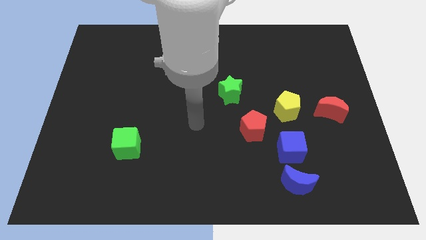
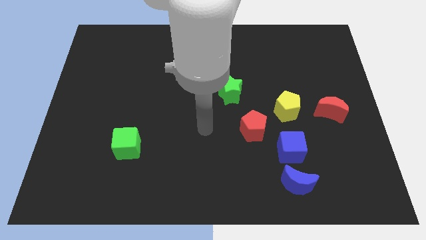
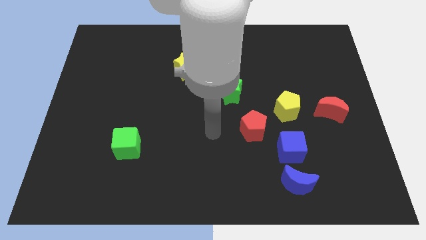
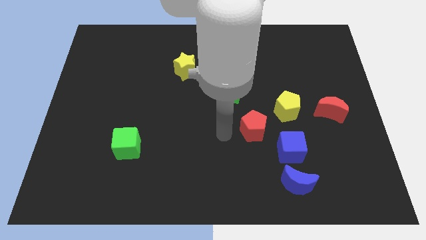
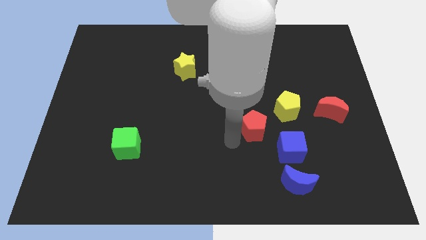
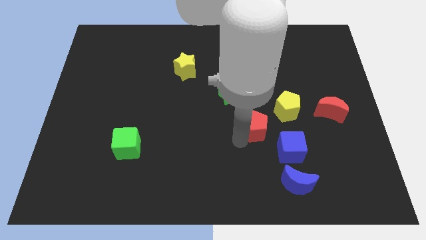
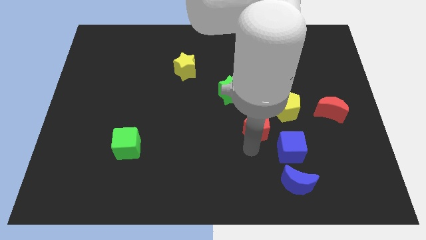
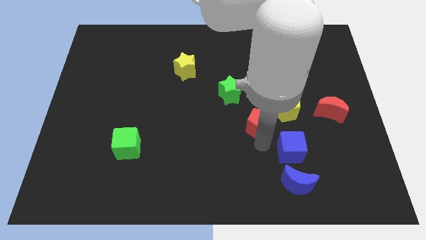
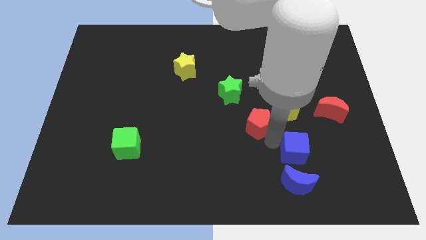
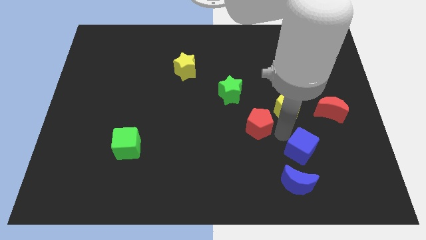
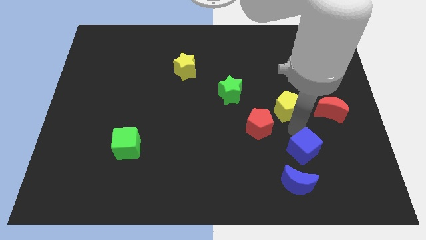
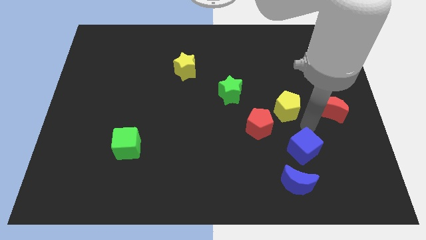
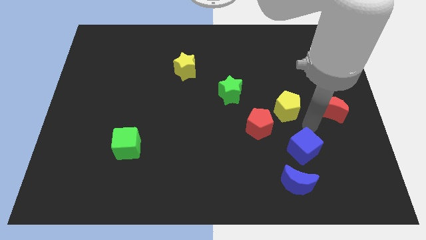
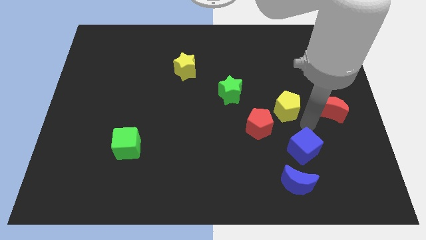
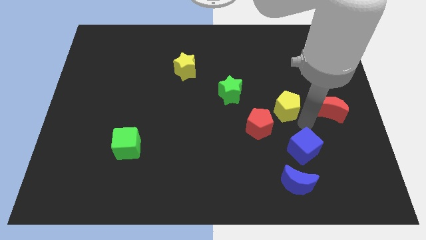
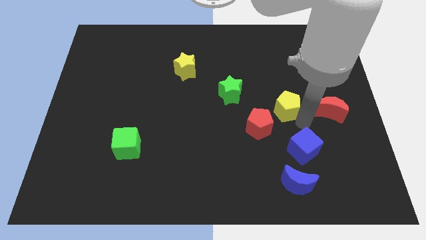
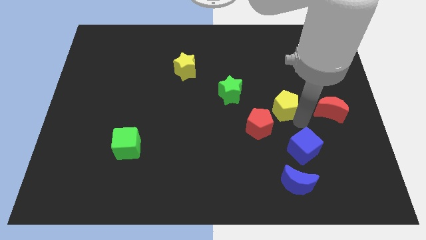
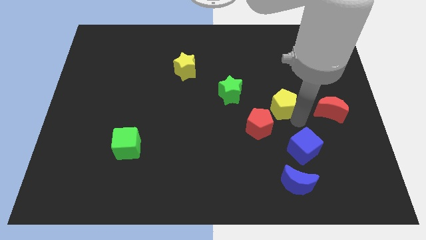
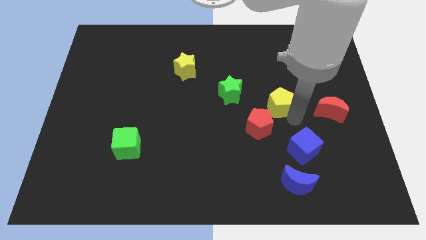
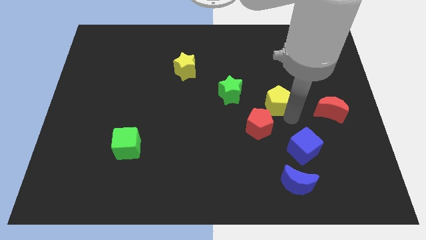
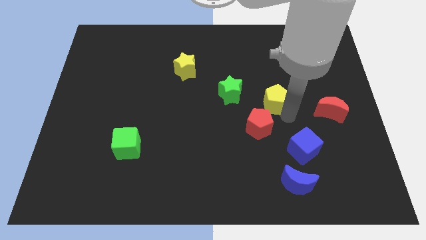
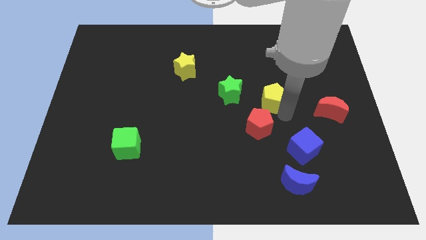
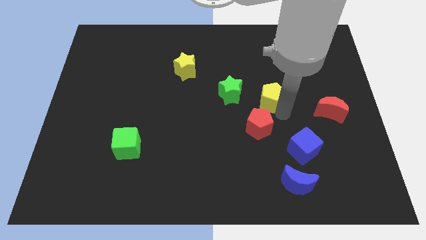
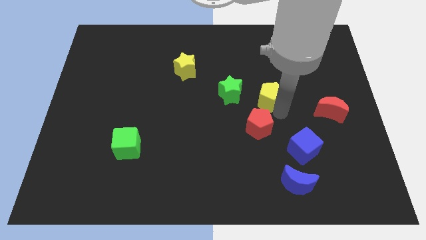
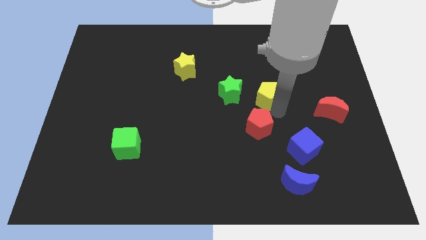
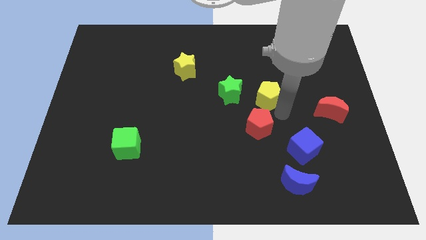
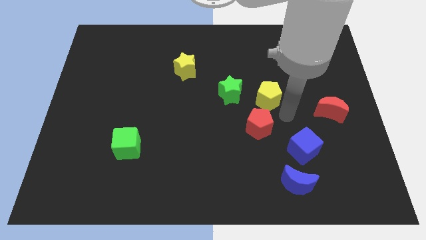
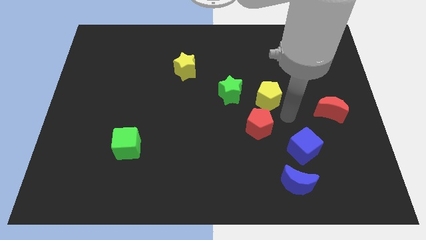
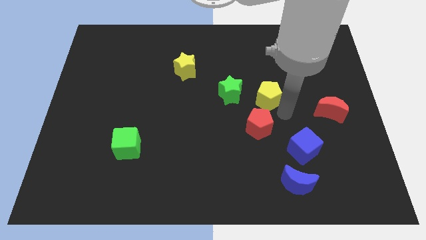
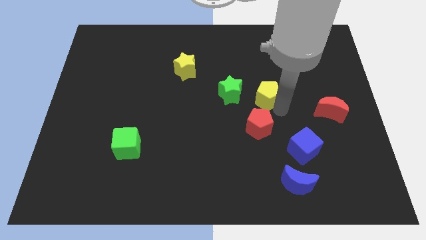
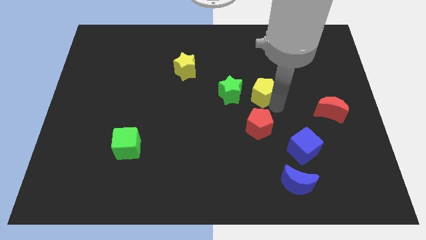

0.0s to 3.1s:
slightly move the yellow pentagon diagonally up and left

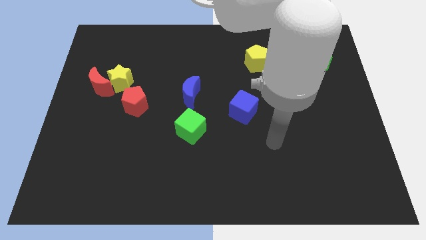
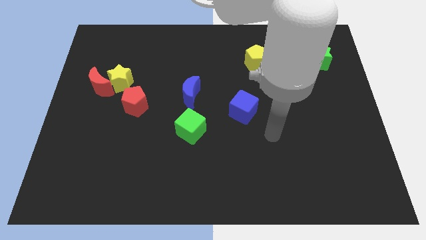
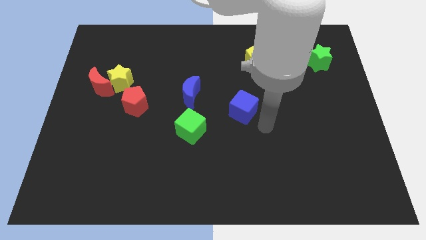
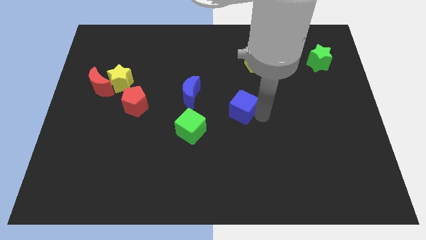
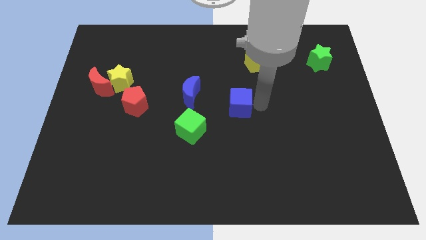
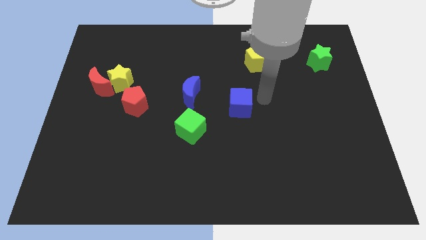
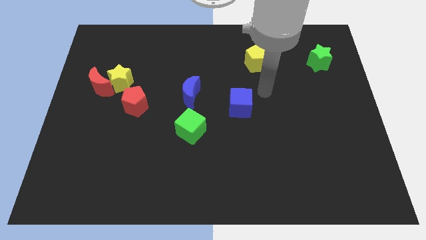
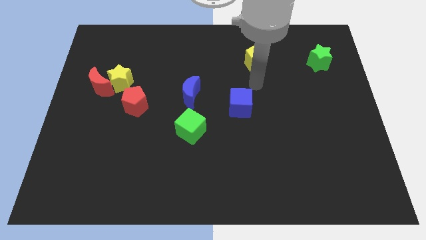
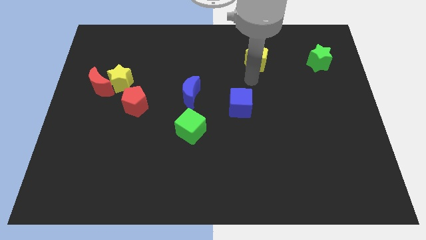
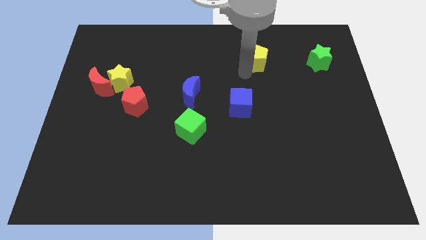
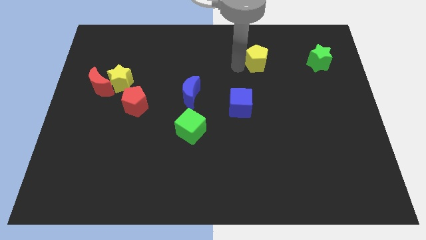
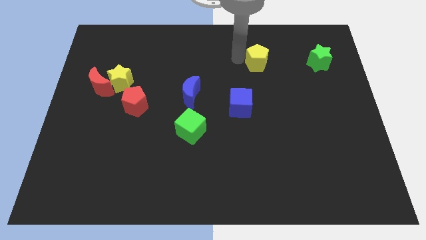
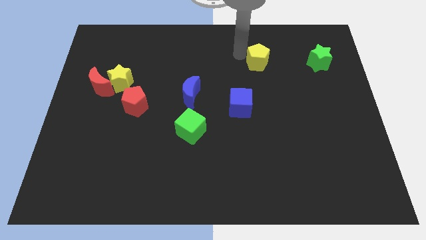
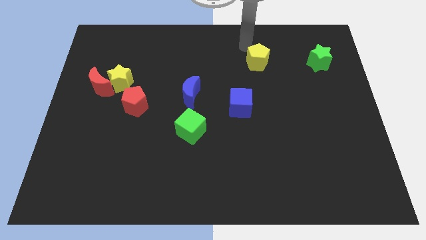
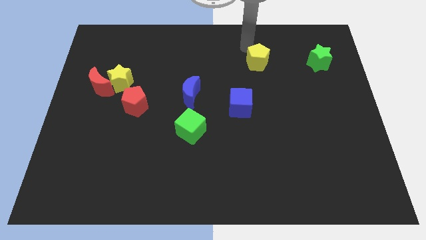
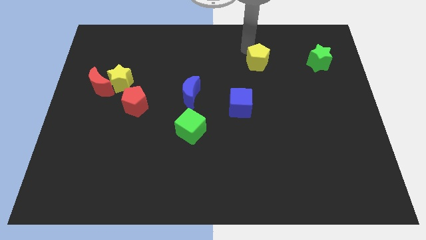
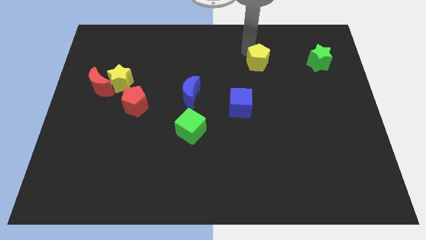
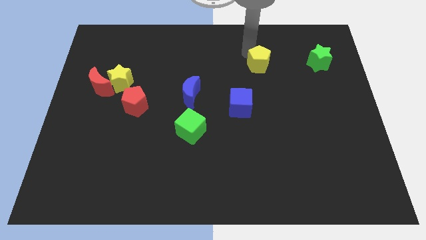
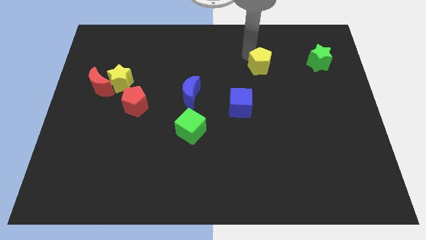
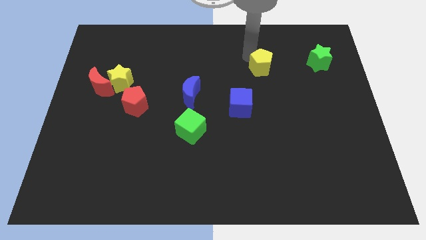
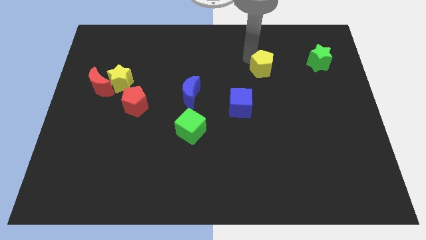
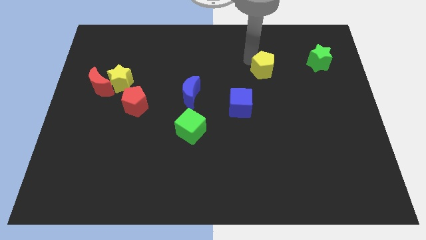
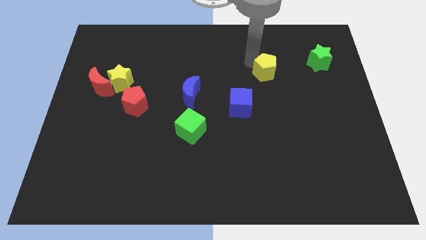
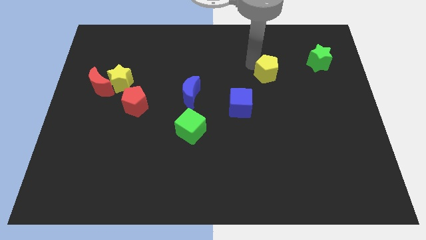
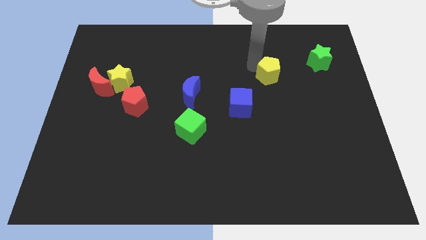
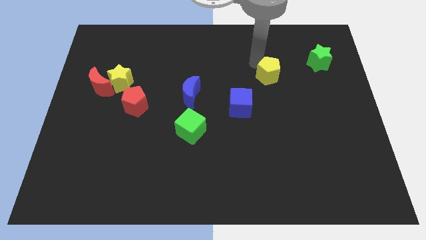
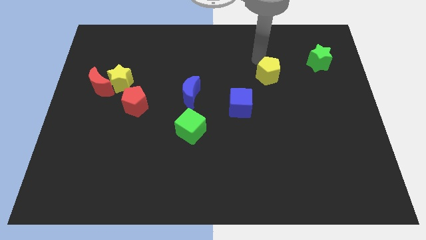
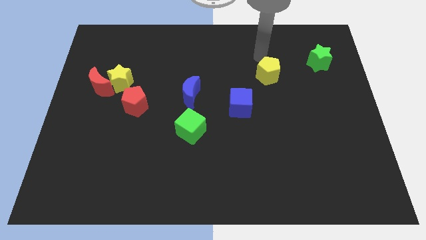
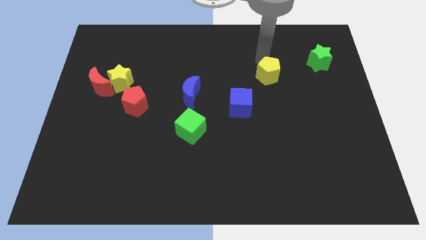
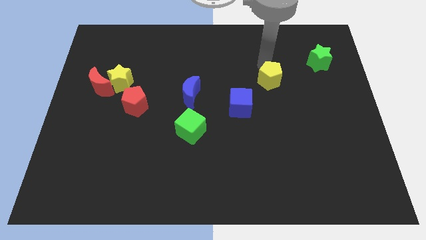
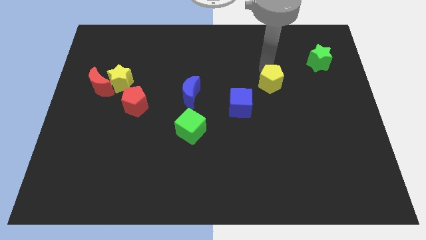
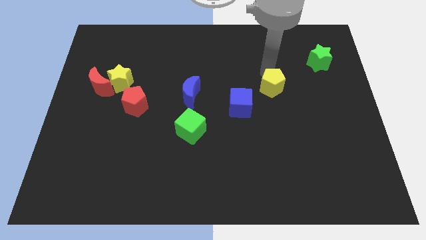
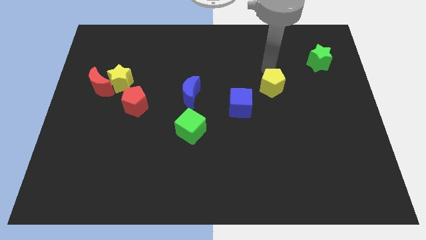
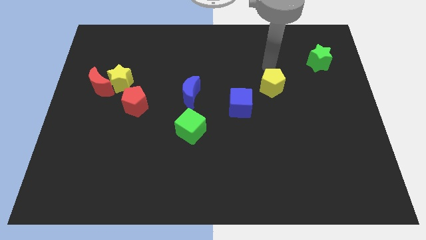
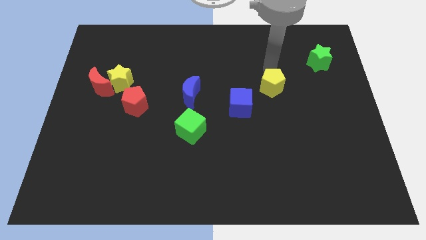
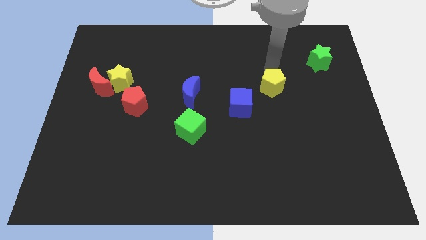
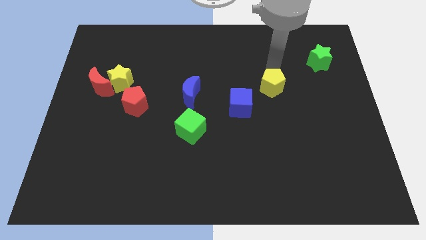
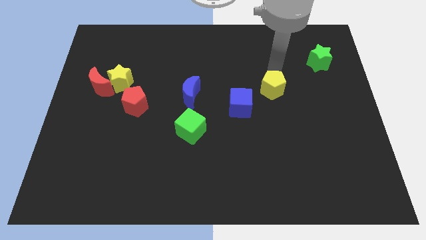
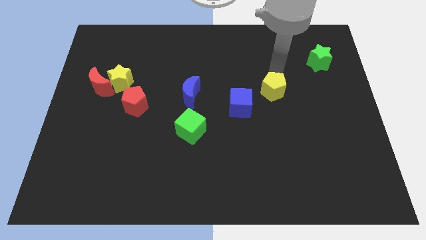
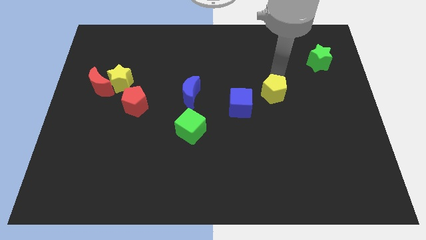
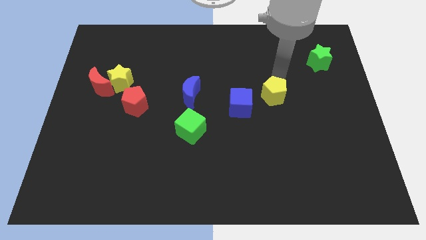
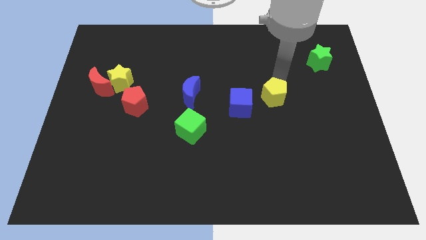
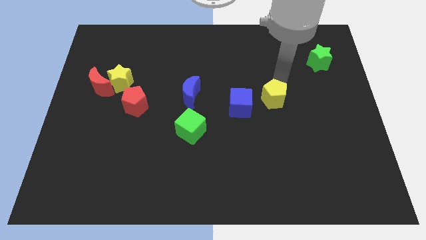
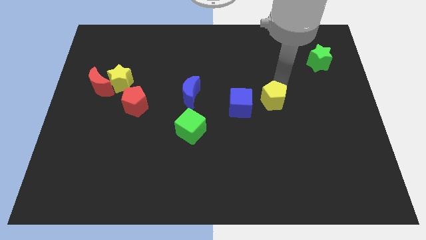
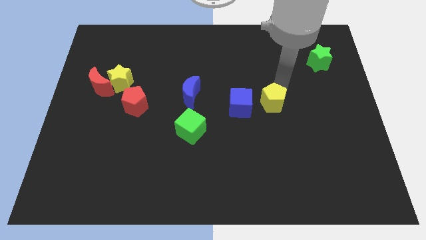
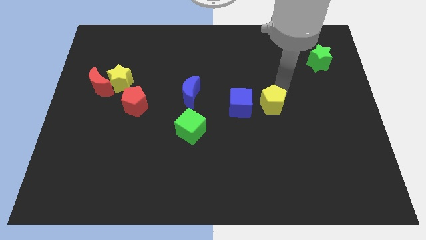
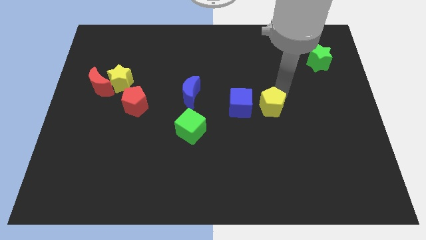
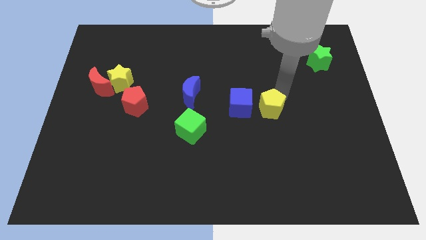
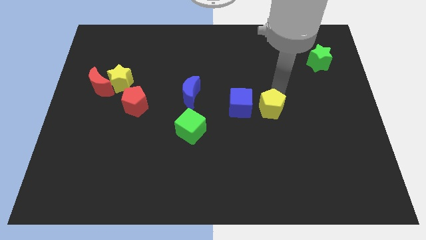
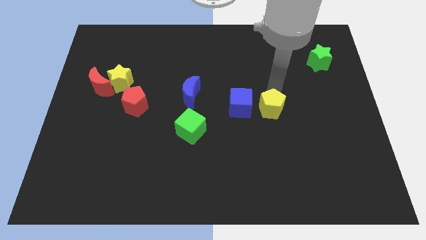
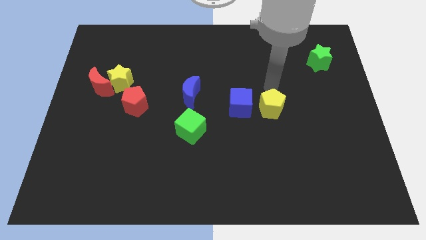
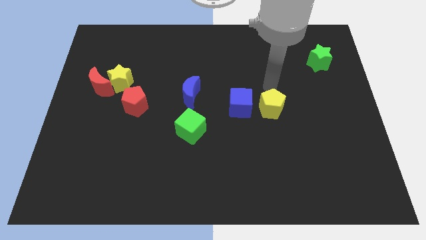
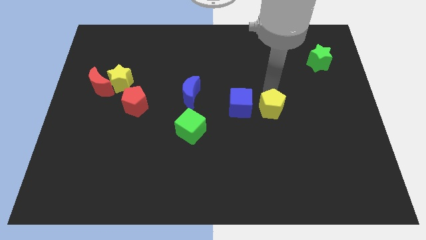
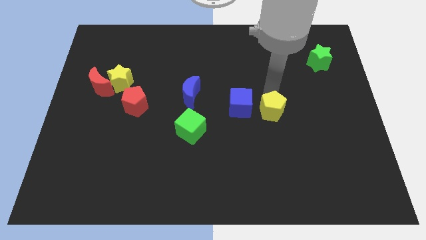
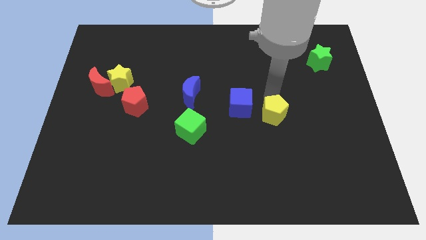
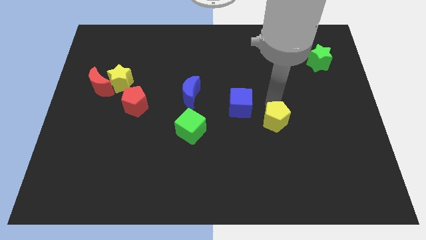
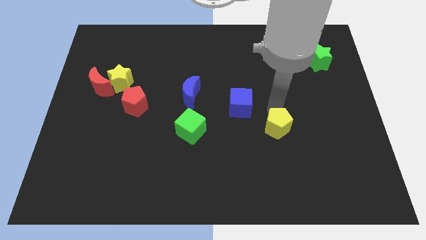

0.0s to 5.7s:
slide the yellow pentagon downwards
